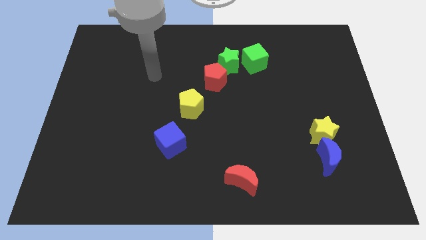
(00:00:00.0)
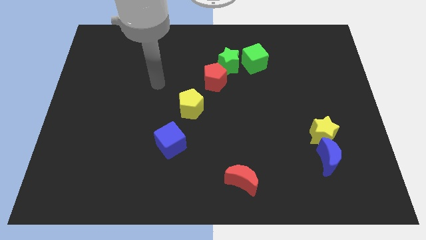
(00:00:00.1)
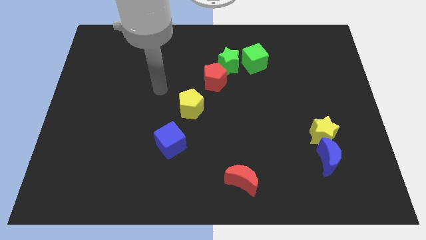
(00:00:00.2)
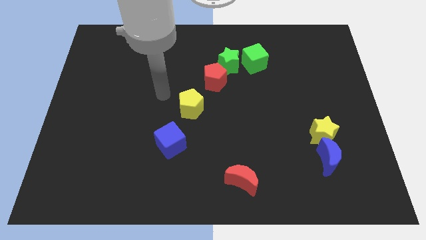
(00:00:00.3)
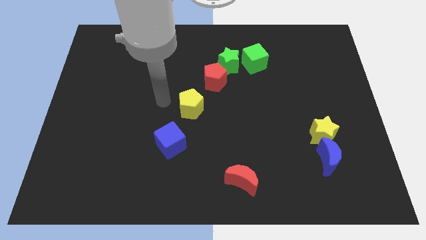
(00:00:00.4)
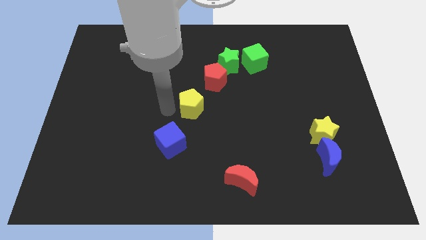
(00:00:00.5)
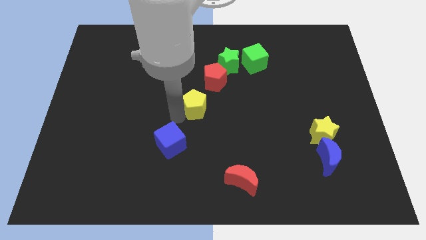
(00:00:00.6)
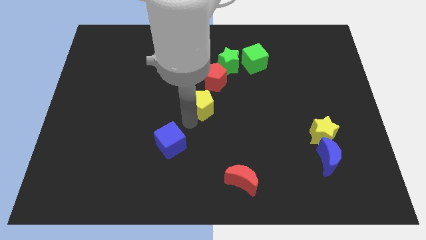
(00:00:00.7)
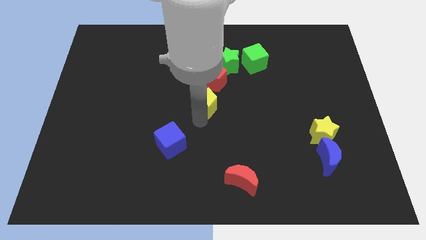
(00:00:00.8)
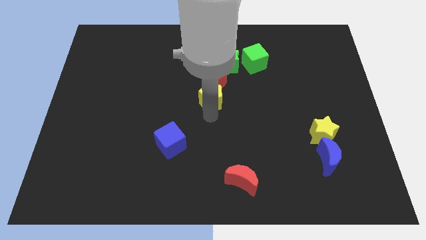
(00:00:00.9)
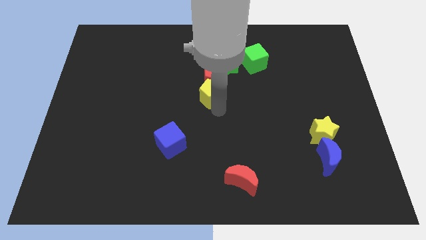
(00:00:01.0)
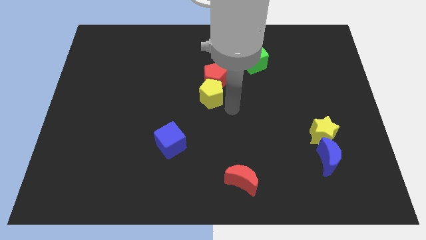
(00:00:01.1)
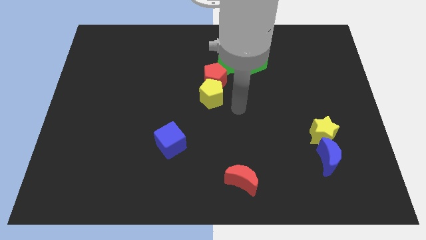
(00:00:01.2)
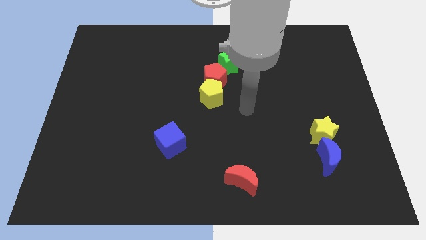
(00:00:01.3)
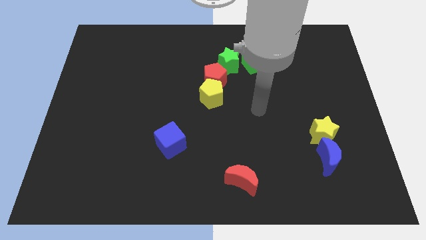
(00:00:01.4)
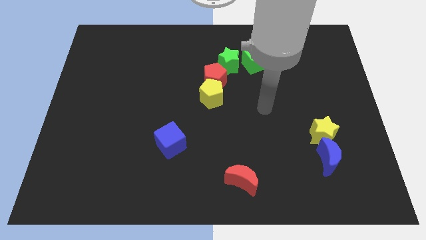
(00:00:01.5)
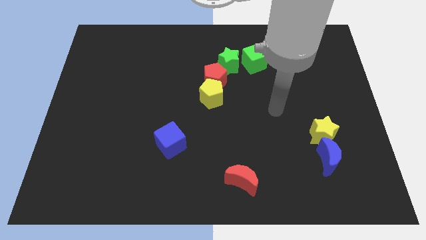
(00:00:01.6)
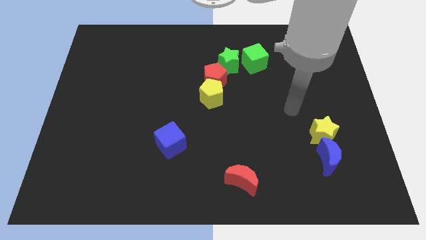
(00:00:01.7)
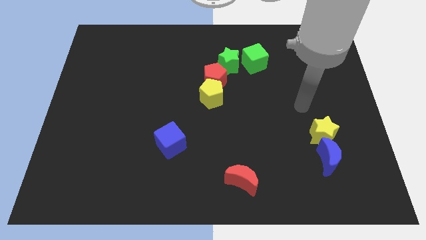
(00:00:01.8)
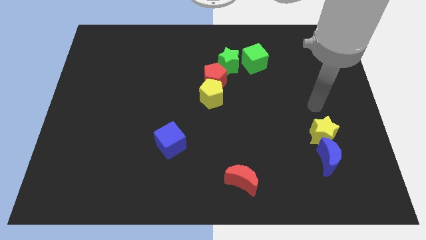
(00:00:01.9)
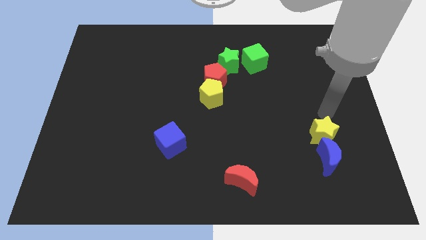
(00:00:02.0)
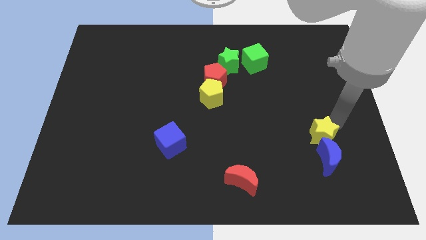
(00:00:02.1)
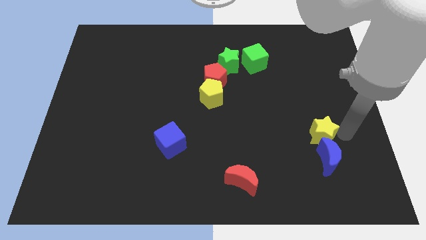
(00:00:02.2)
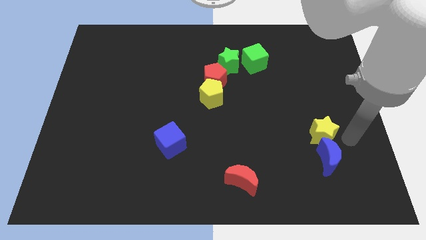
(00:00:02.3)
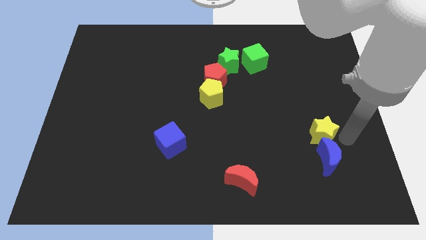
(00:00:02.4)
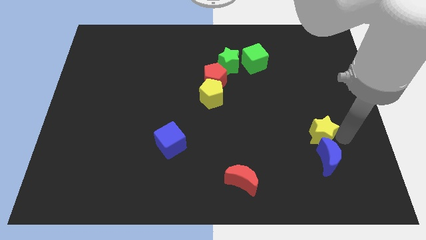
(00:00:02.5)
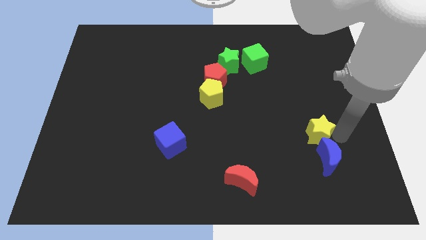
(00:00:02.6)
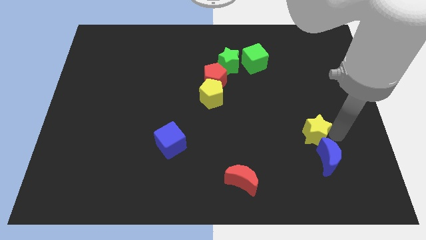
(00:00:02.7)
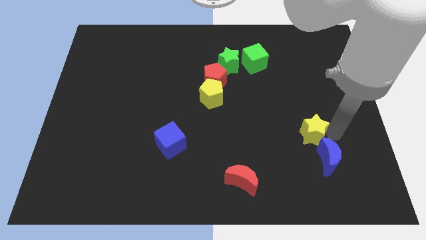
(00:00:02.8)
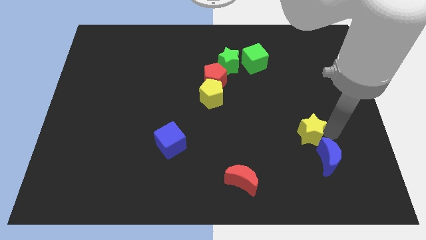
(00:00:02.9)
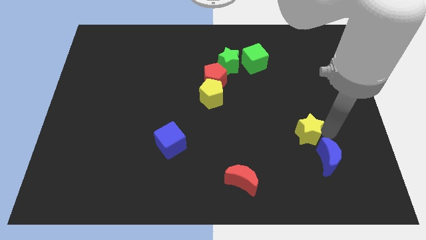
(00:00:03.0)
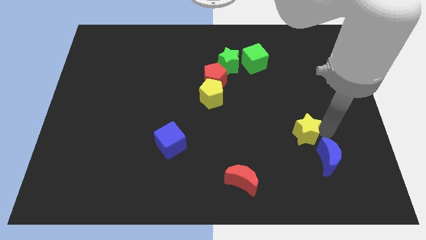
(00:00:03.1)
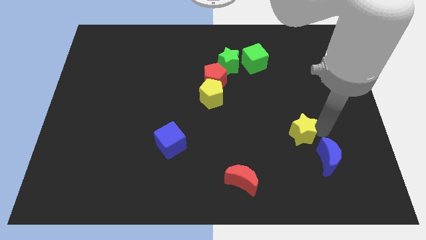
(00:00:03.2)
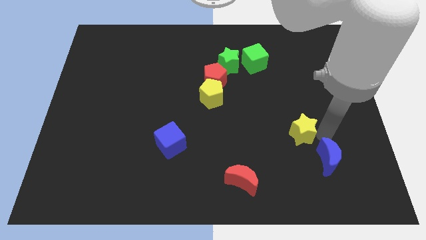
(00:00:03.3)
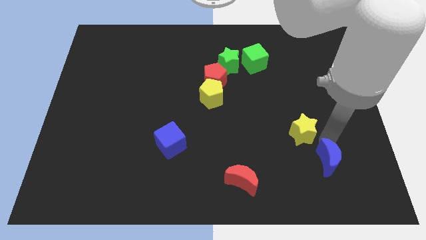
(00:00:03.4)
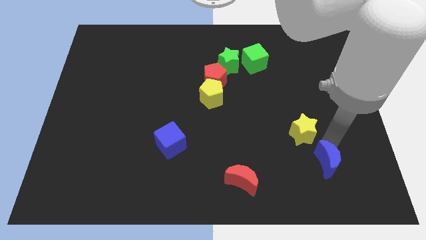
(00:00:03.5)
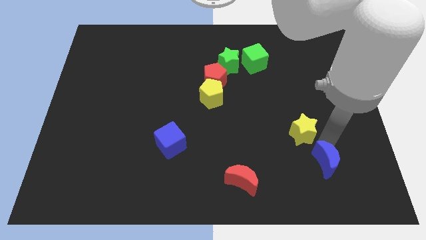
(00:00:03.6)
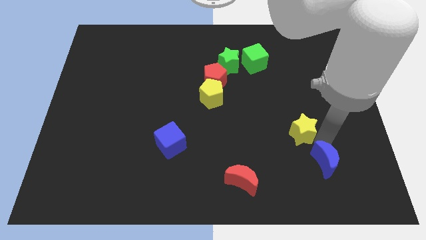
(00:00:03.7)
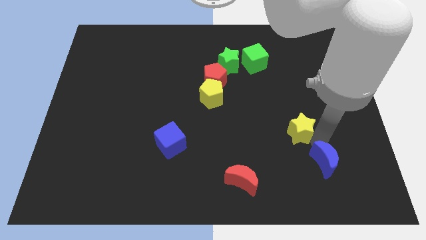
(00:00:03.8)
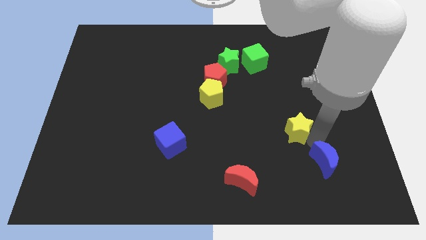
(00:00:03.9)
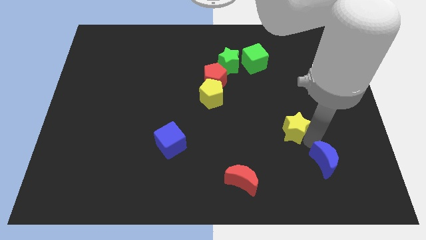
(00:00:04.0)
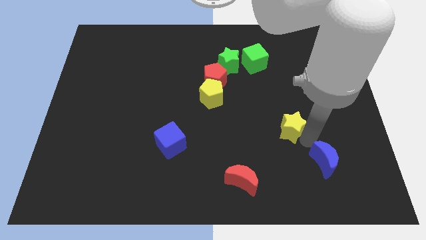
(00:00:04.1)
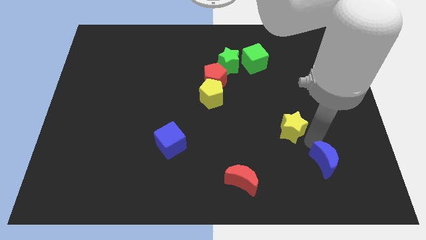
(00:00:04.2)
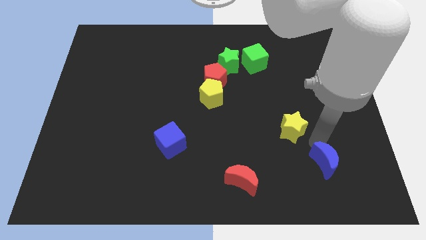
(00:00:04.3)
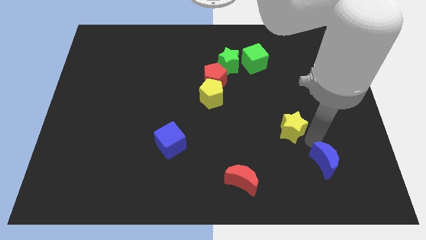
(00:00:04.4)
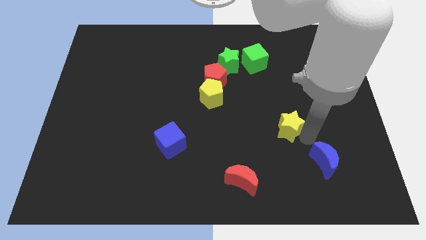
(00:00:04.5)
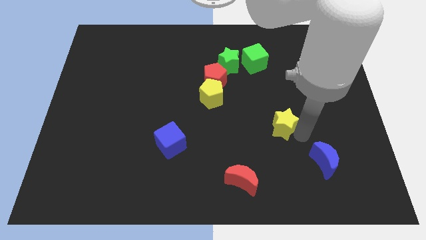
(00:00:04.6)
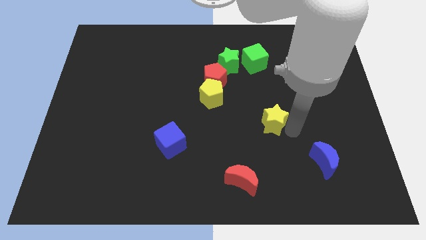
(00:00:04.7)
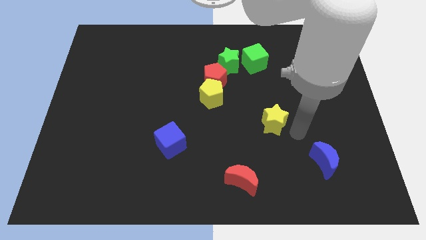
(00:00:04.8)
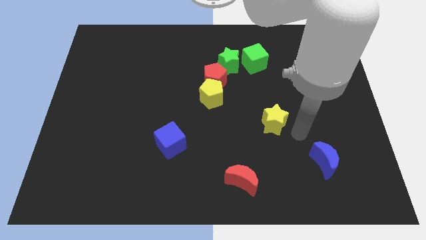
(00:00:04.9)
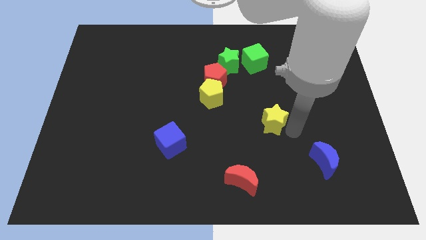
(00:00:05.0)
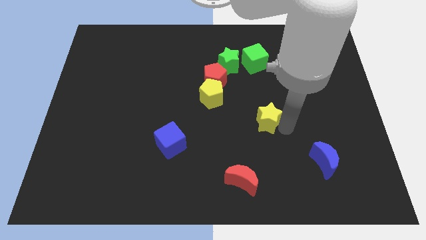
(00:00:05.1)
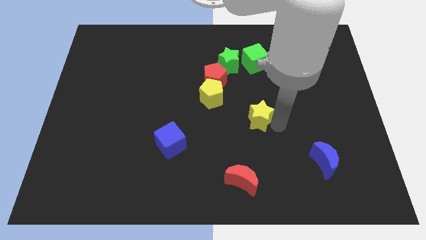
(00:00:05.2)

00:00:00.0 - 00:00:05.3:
put the yellow star to the center of the board
